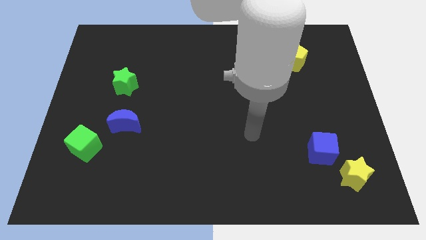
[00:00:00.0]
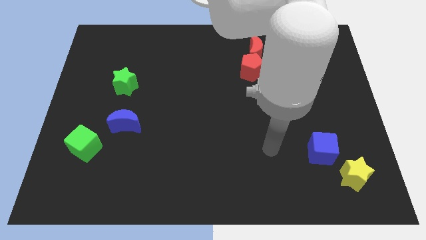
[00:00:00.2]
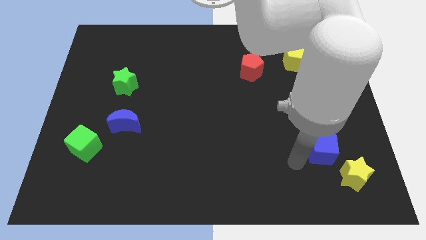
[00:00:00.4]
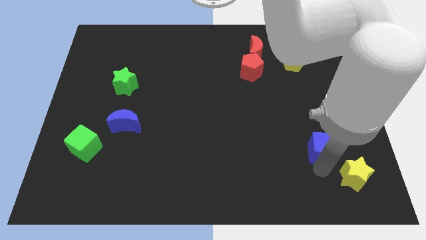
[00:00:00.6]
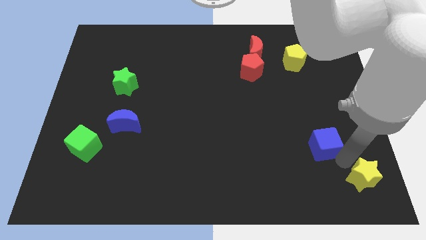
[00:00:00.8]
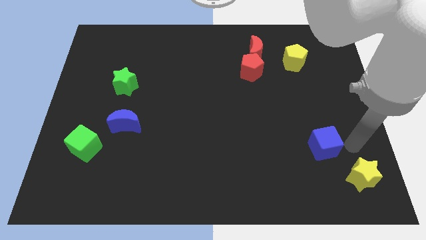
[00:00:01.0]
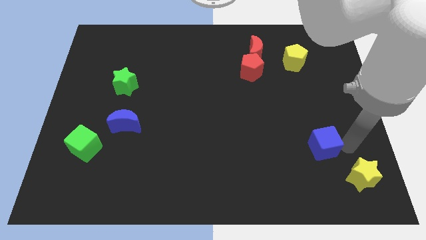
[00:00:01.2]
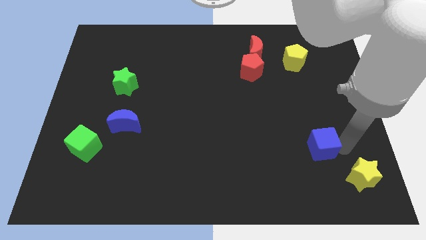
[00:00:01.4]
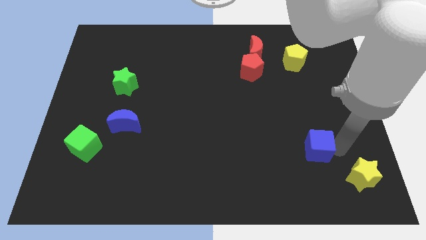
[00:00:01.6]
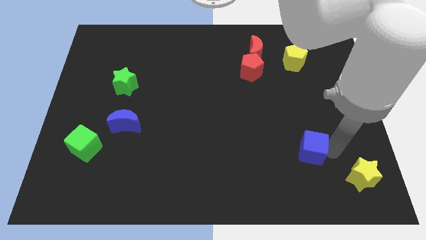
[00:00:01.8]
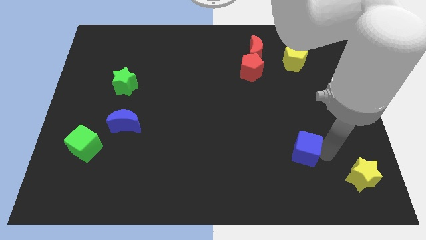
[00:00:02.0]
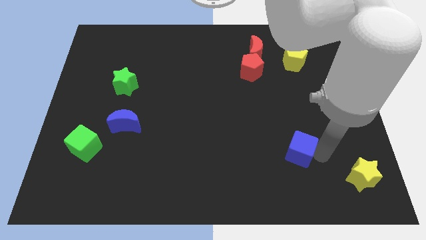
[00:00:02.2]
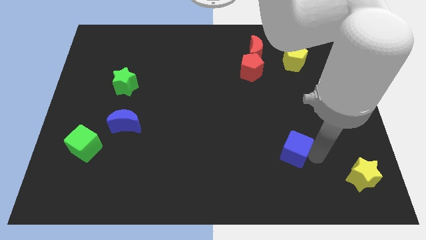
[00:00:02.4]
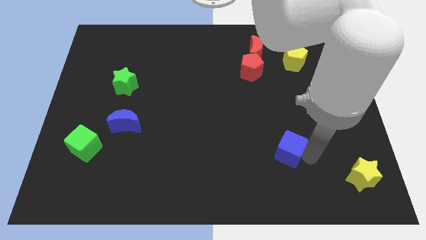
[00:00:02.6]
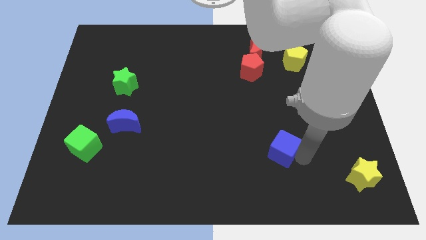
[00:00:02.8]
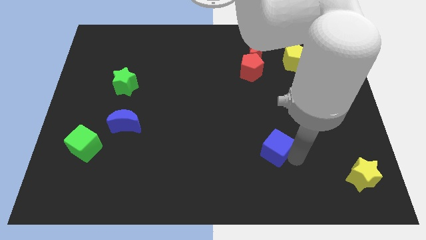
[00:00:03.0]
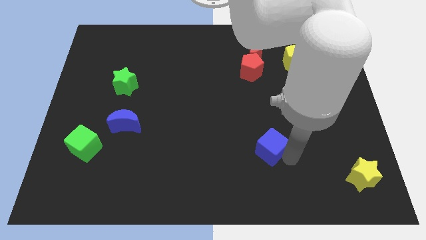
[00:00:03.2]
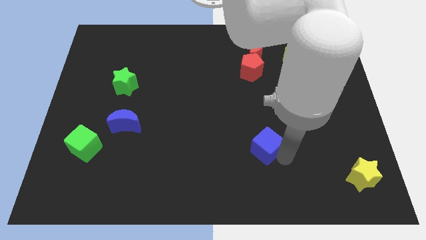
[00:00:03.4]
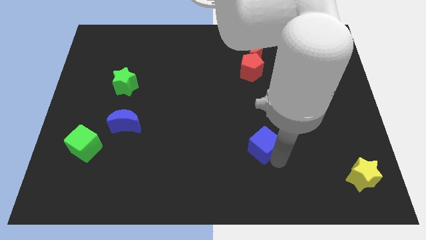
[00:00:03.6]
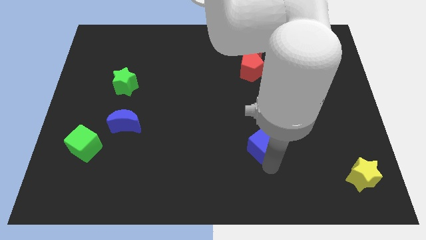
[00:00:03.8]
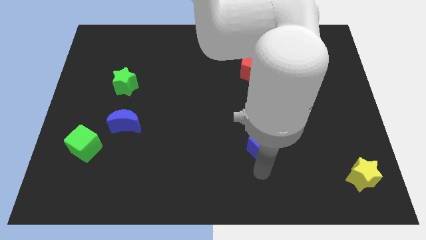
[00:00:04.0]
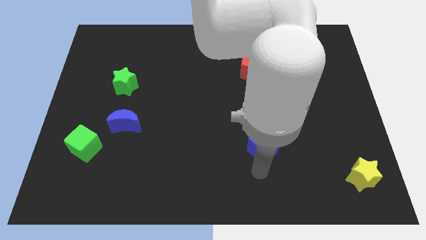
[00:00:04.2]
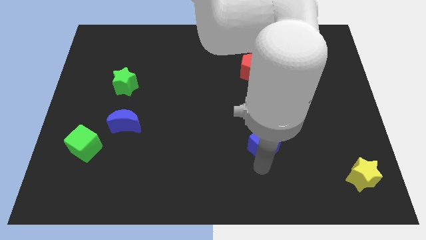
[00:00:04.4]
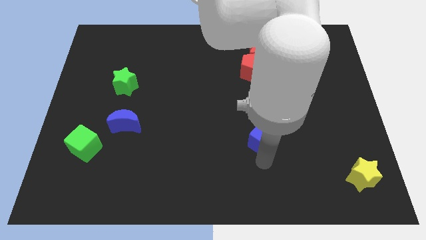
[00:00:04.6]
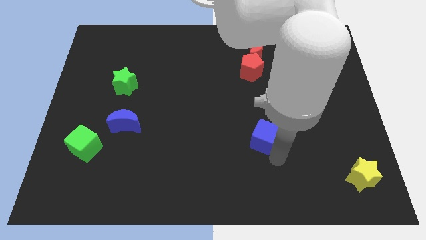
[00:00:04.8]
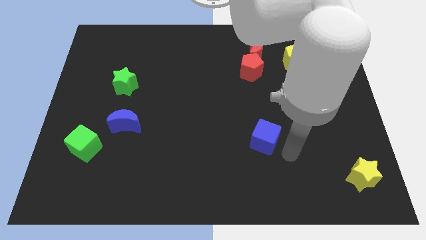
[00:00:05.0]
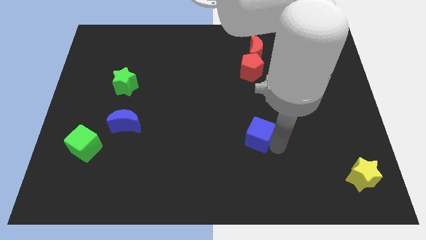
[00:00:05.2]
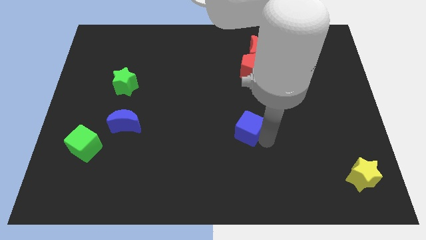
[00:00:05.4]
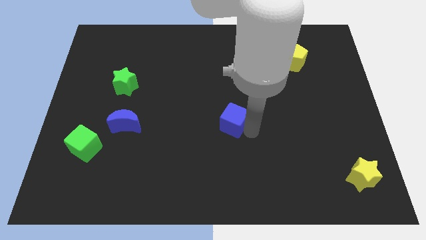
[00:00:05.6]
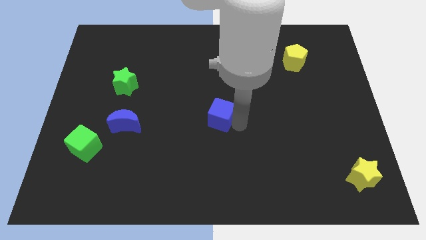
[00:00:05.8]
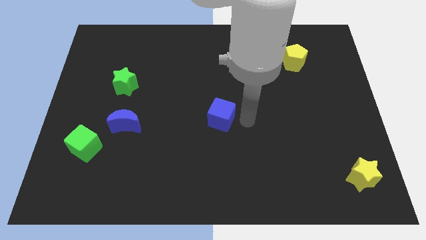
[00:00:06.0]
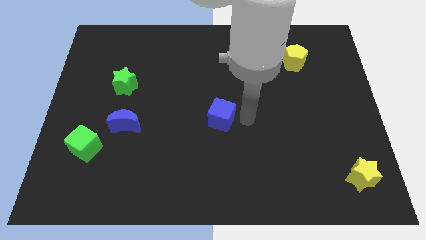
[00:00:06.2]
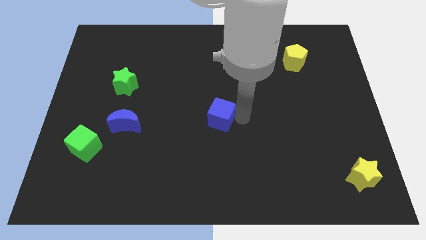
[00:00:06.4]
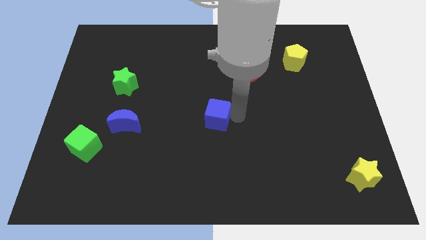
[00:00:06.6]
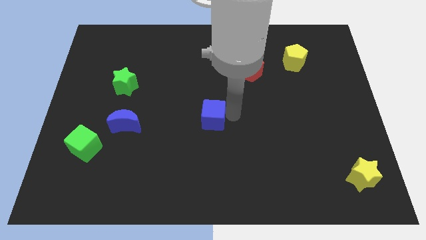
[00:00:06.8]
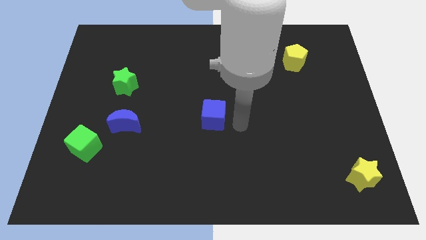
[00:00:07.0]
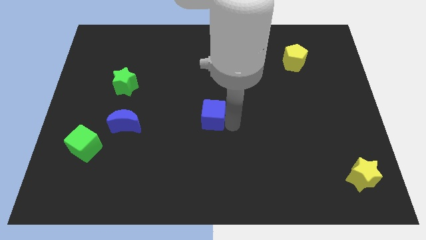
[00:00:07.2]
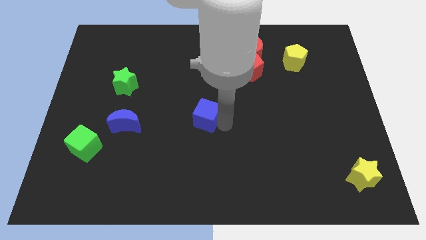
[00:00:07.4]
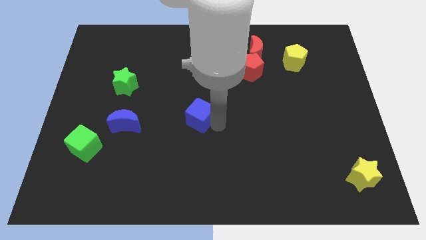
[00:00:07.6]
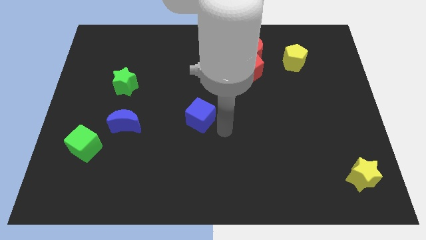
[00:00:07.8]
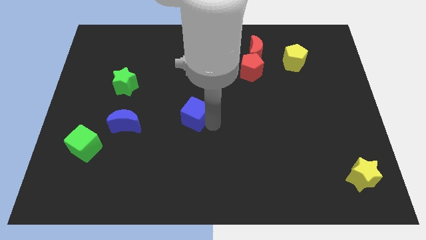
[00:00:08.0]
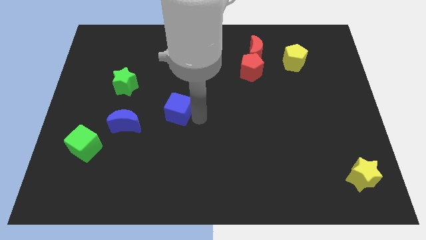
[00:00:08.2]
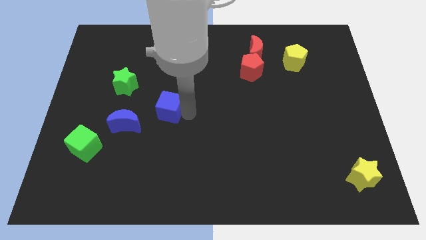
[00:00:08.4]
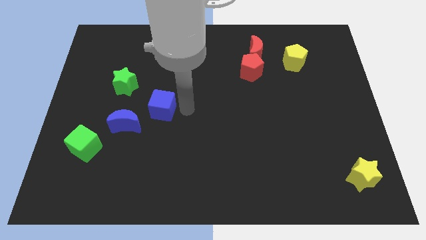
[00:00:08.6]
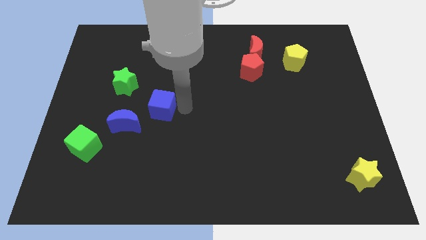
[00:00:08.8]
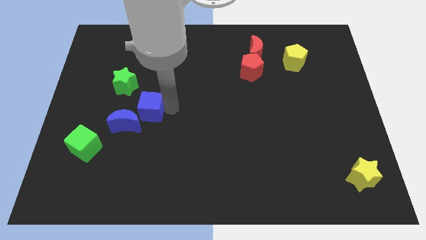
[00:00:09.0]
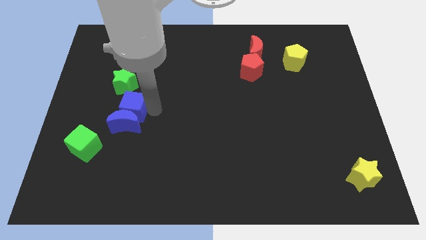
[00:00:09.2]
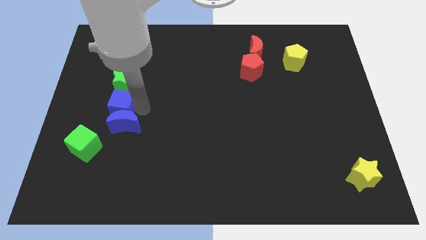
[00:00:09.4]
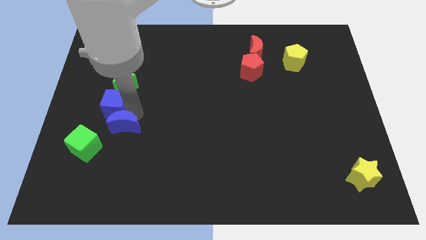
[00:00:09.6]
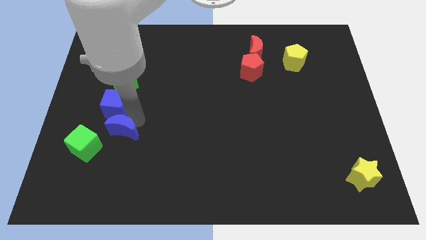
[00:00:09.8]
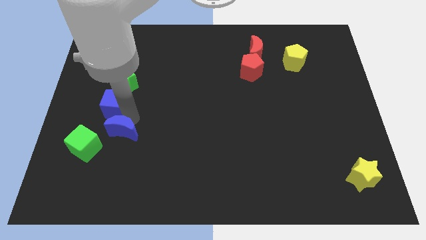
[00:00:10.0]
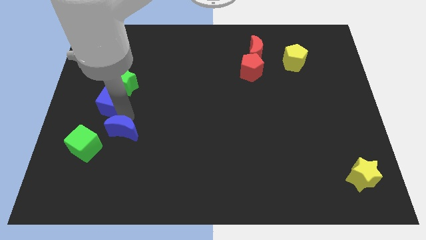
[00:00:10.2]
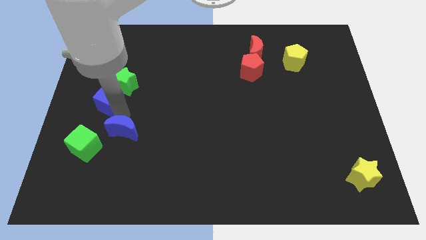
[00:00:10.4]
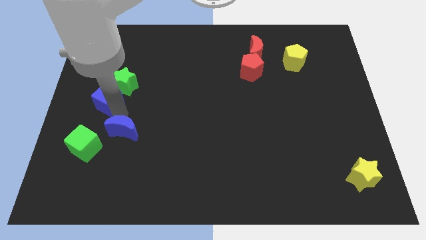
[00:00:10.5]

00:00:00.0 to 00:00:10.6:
slide the blue cube to the center left
